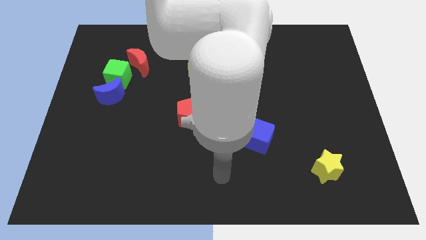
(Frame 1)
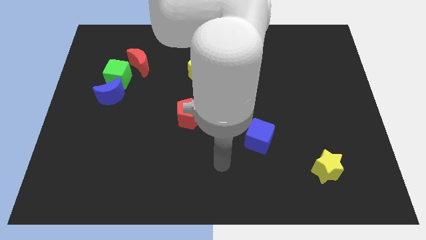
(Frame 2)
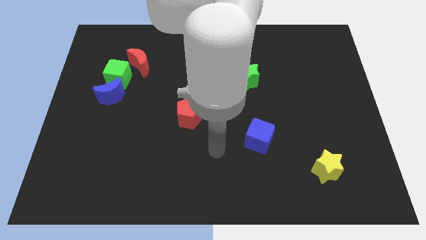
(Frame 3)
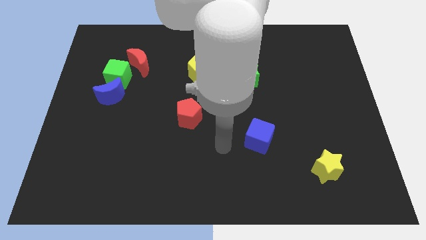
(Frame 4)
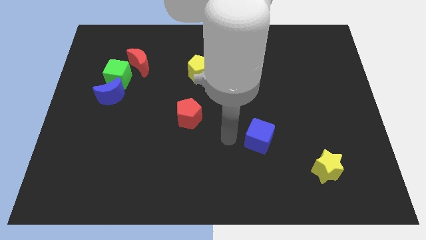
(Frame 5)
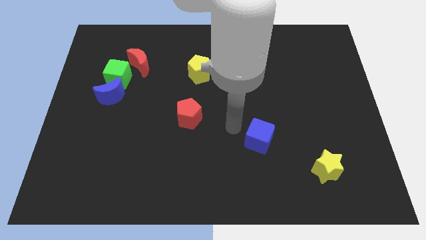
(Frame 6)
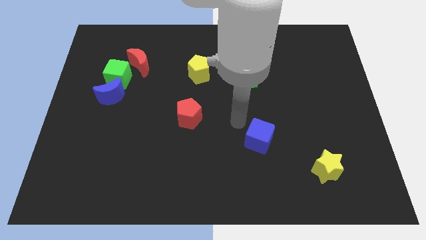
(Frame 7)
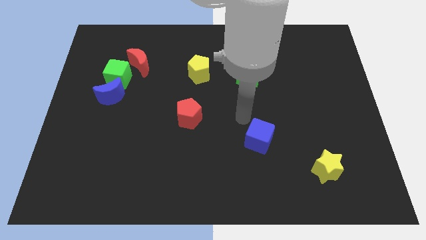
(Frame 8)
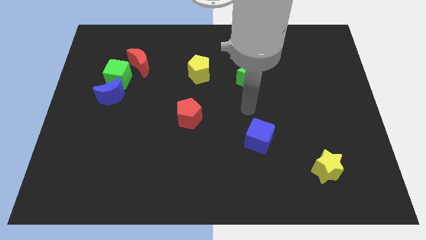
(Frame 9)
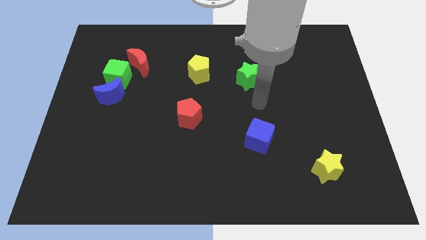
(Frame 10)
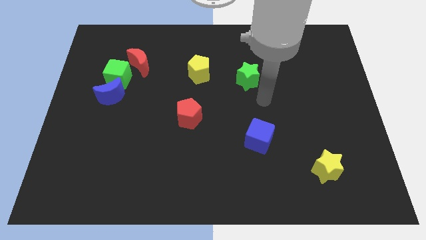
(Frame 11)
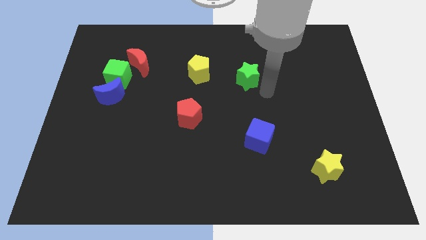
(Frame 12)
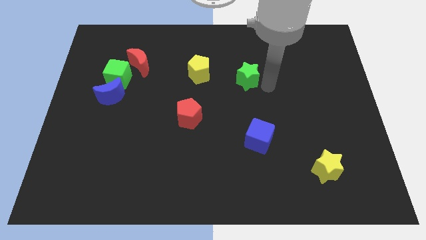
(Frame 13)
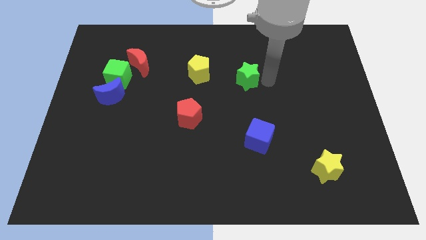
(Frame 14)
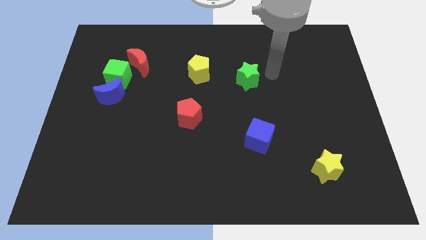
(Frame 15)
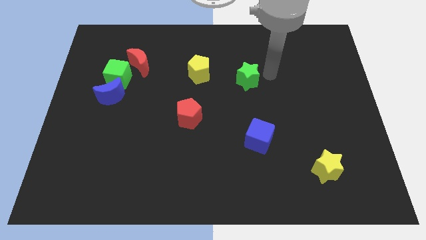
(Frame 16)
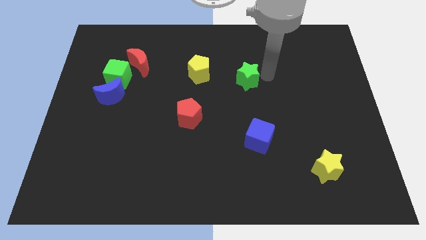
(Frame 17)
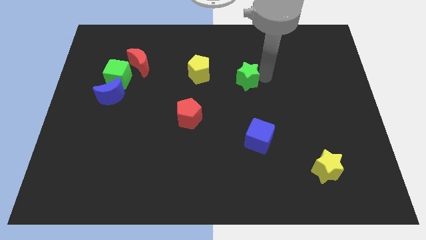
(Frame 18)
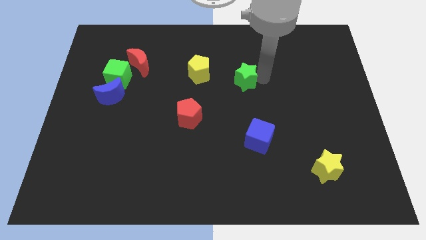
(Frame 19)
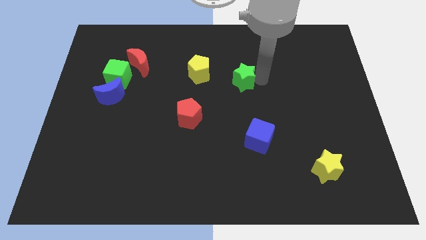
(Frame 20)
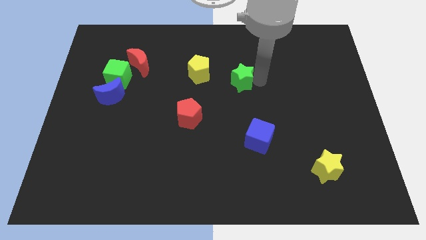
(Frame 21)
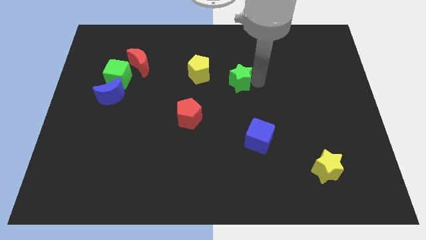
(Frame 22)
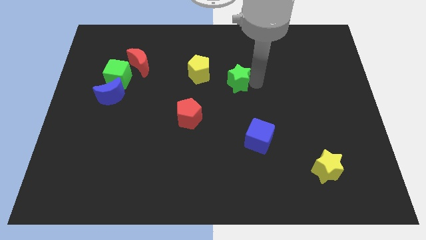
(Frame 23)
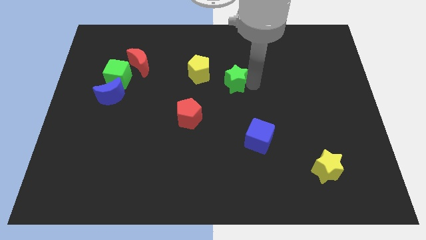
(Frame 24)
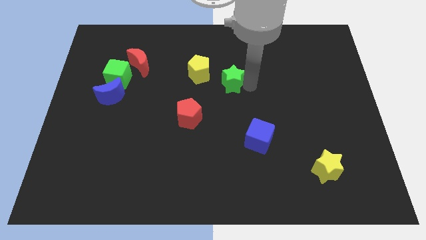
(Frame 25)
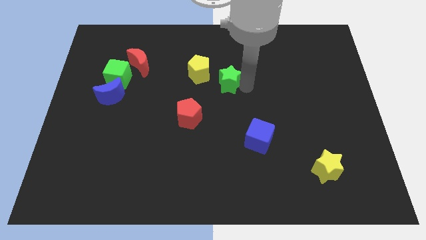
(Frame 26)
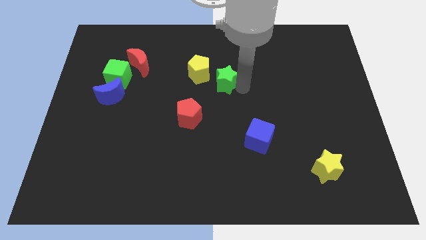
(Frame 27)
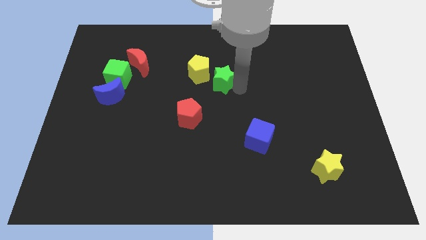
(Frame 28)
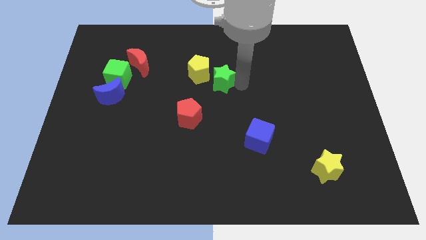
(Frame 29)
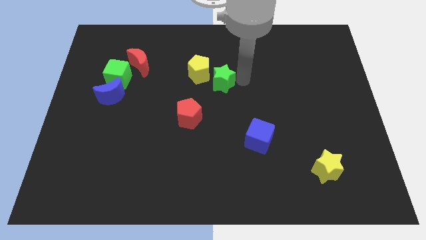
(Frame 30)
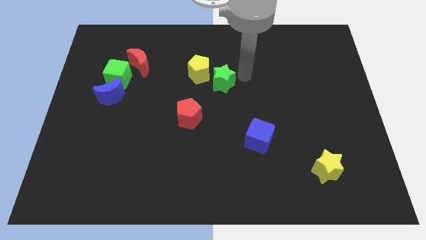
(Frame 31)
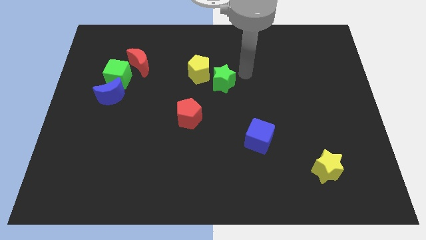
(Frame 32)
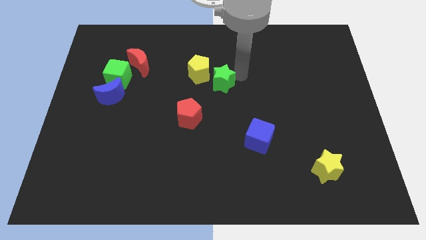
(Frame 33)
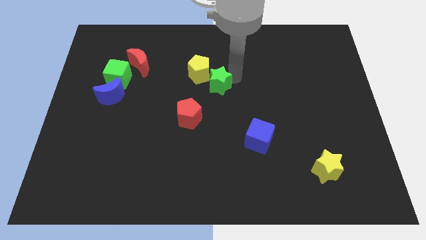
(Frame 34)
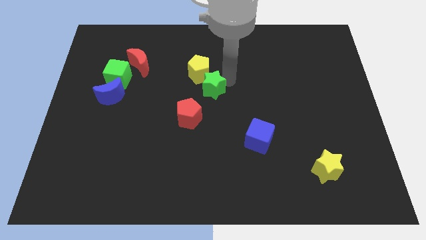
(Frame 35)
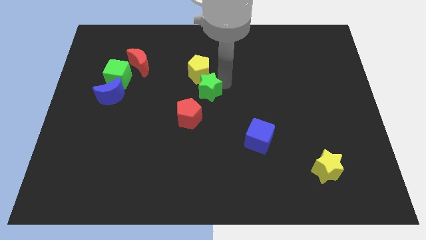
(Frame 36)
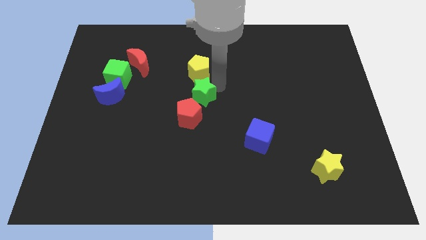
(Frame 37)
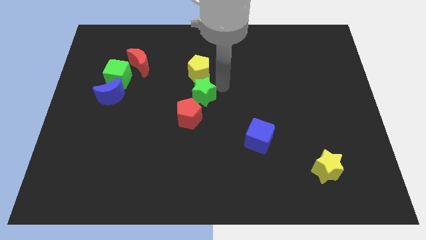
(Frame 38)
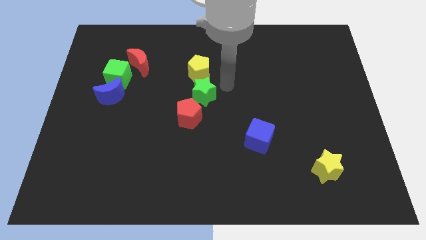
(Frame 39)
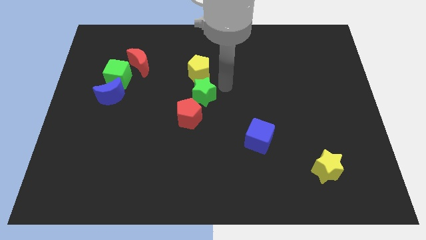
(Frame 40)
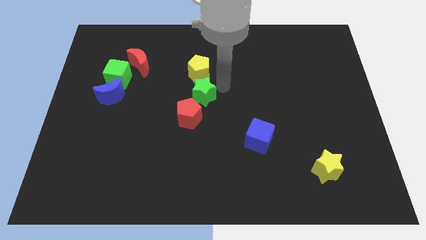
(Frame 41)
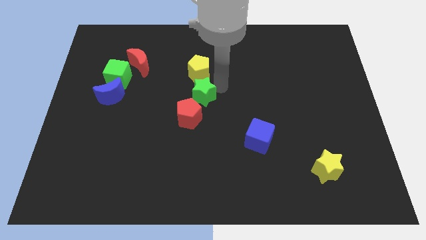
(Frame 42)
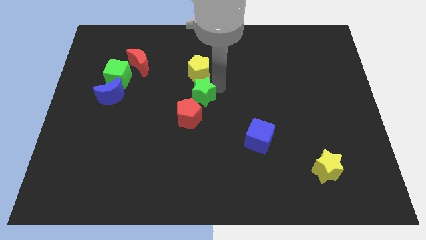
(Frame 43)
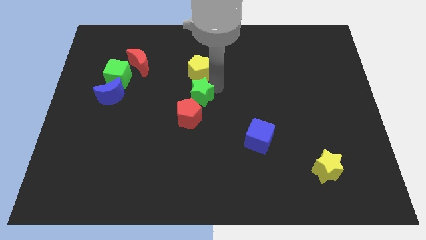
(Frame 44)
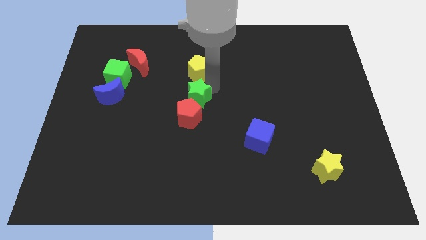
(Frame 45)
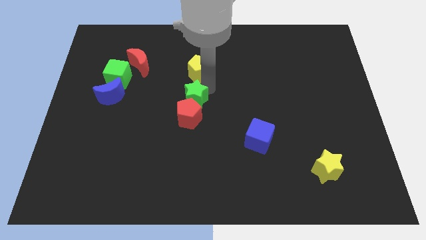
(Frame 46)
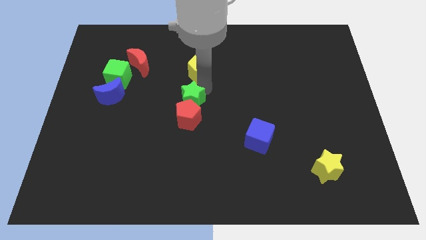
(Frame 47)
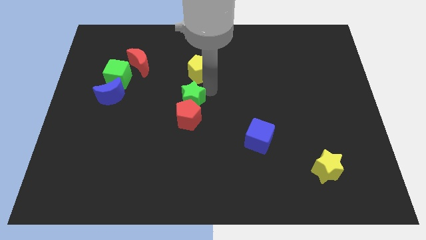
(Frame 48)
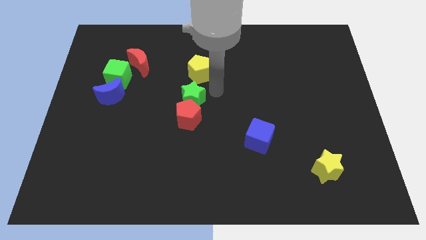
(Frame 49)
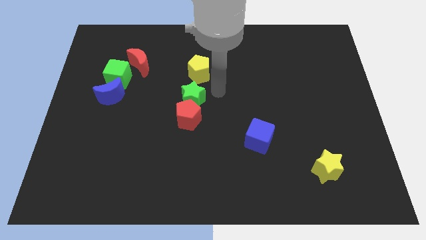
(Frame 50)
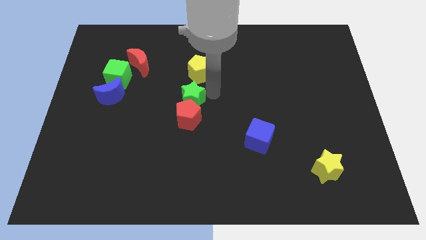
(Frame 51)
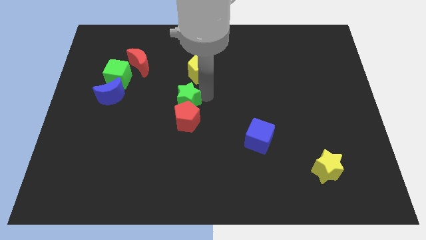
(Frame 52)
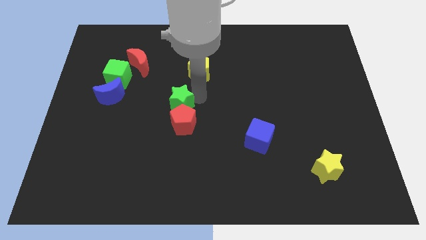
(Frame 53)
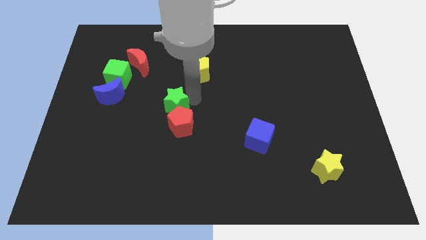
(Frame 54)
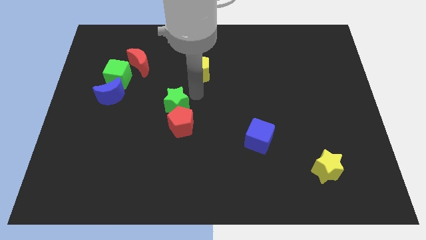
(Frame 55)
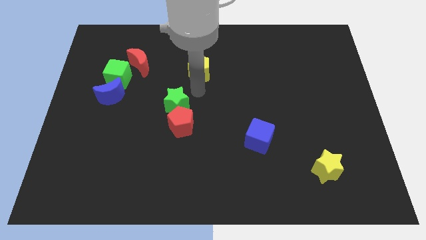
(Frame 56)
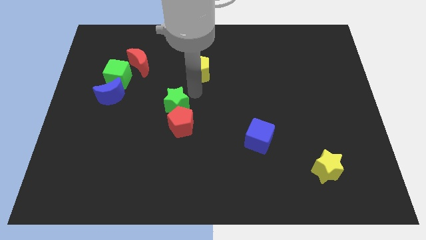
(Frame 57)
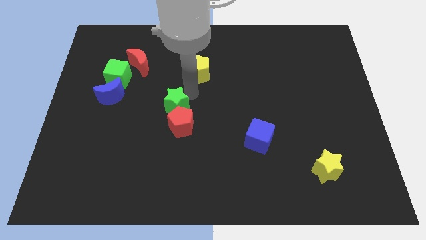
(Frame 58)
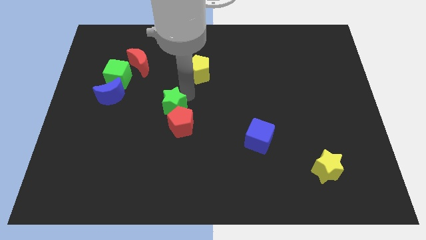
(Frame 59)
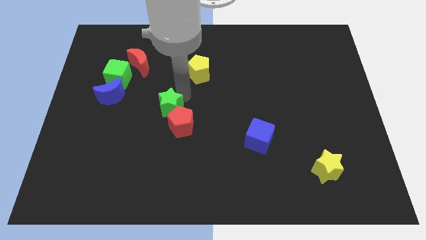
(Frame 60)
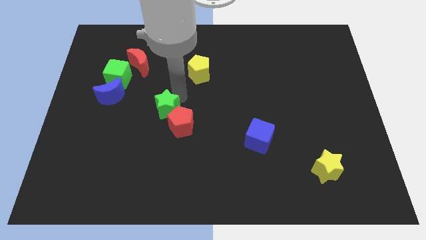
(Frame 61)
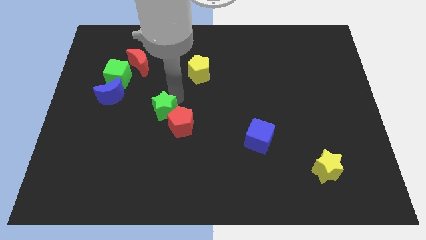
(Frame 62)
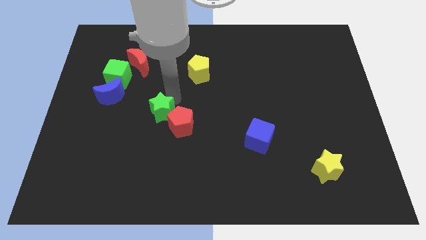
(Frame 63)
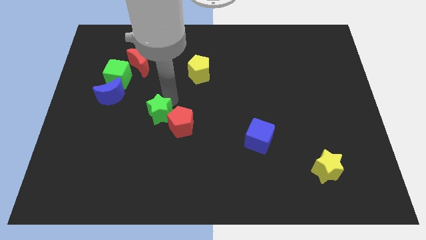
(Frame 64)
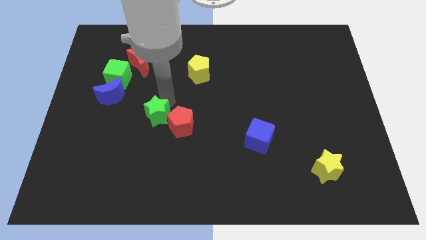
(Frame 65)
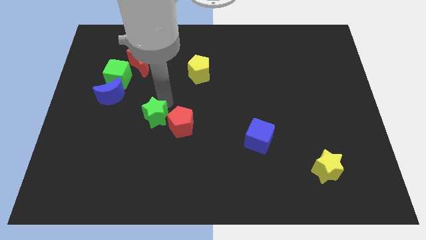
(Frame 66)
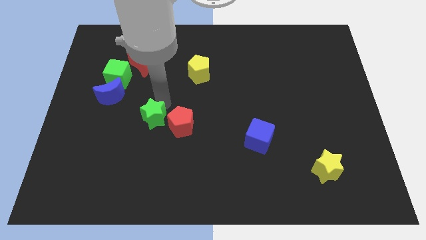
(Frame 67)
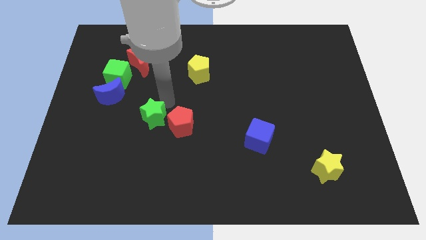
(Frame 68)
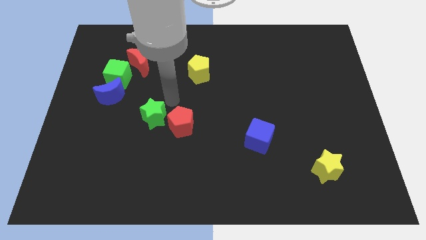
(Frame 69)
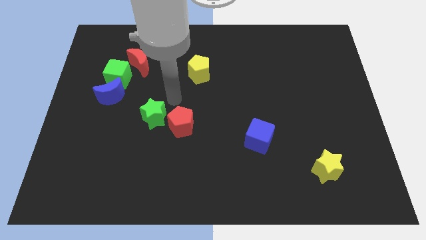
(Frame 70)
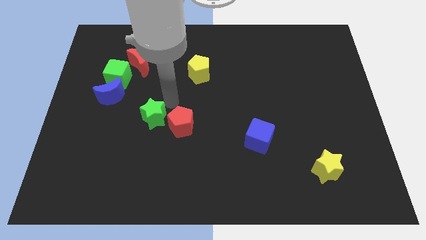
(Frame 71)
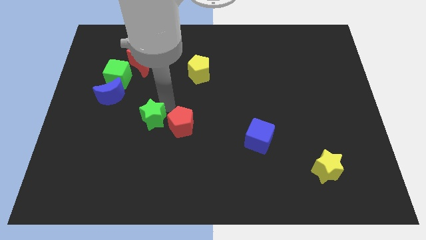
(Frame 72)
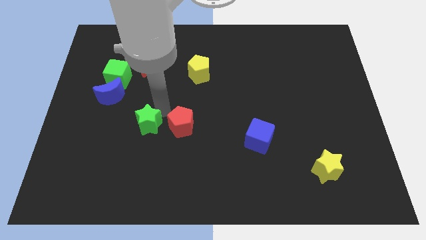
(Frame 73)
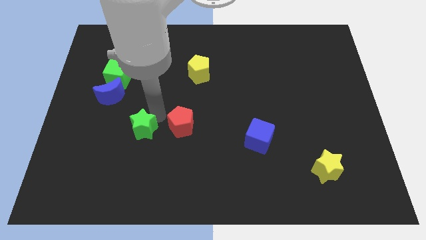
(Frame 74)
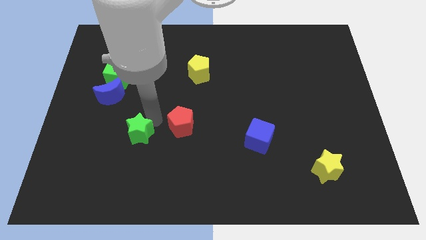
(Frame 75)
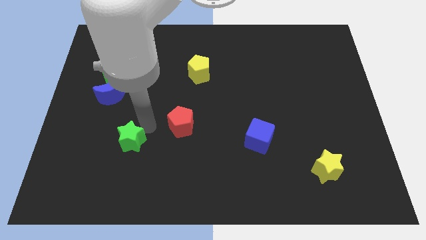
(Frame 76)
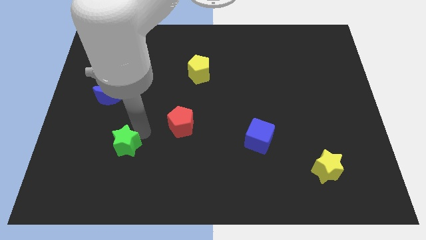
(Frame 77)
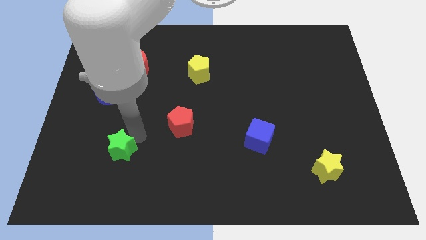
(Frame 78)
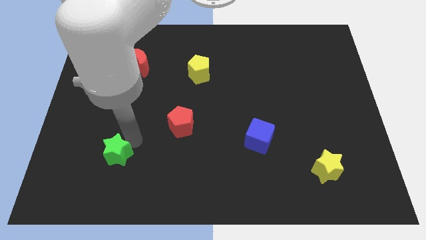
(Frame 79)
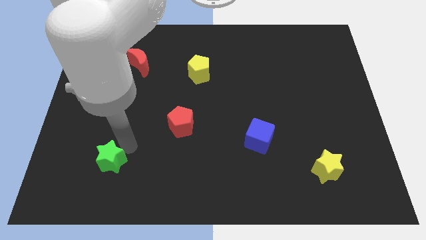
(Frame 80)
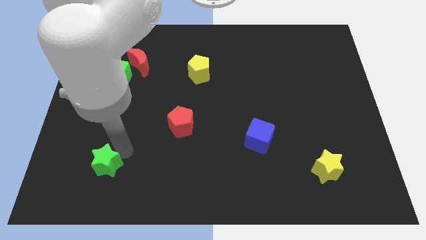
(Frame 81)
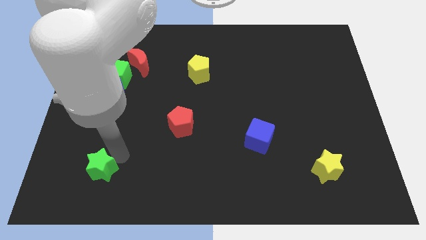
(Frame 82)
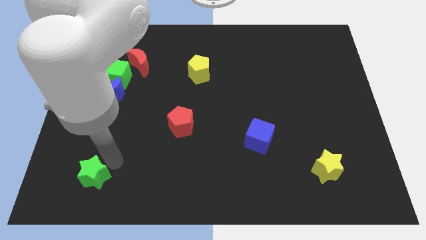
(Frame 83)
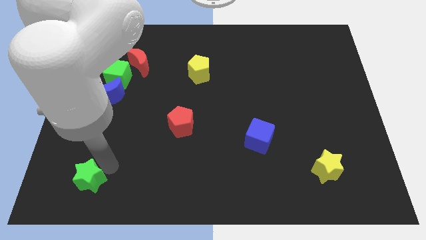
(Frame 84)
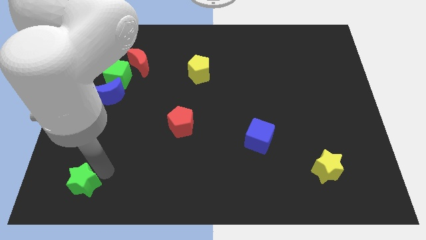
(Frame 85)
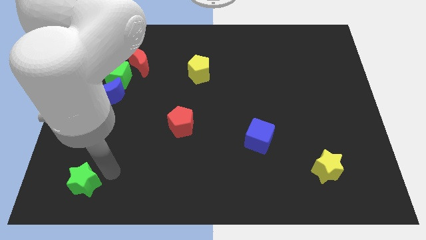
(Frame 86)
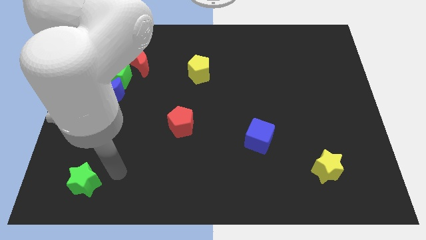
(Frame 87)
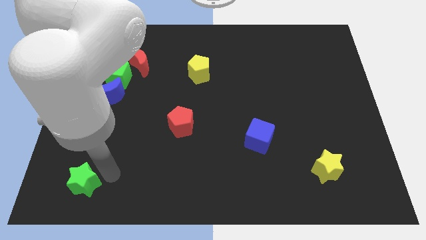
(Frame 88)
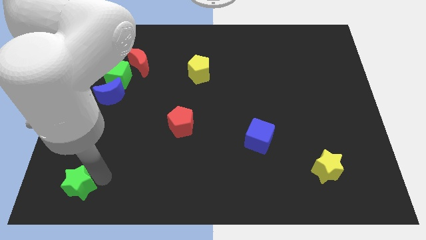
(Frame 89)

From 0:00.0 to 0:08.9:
put the green star to the lower left corner
